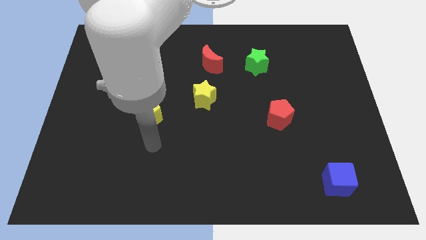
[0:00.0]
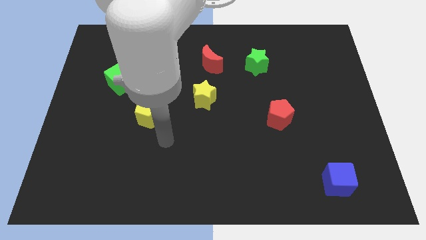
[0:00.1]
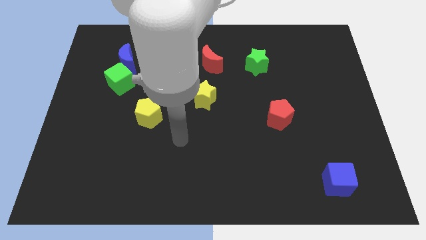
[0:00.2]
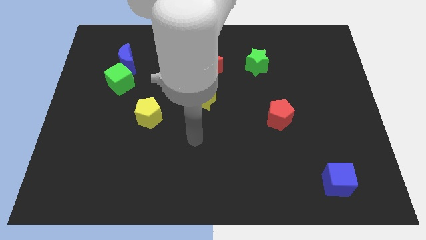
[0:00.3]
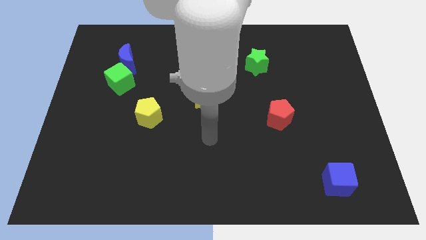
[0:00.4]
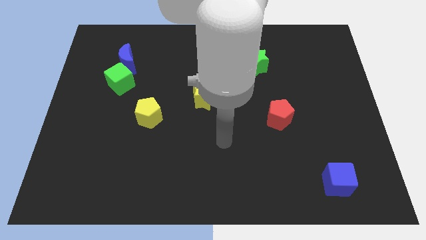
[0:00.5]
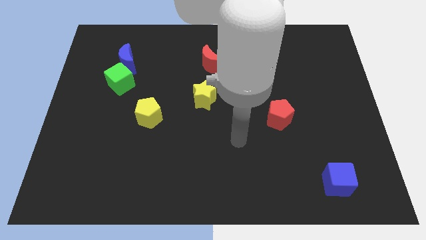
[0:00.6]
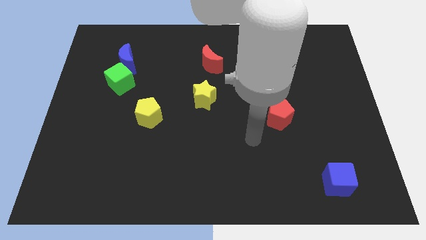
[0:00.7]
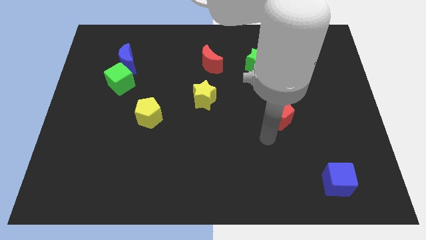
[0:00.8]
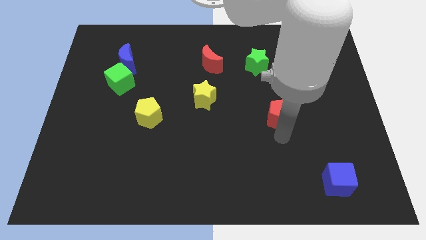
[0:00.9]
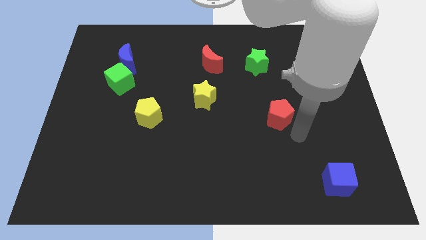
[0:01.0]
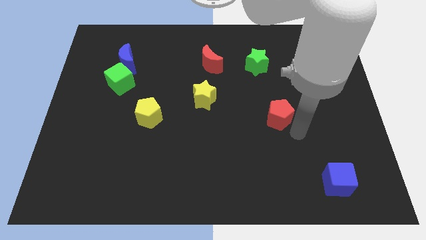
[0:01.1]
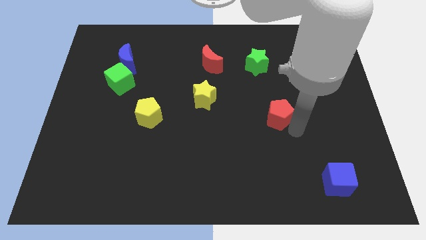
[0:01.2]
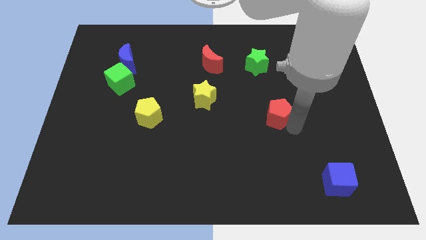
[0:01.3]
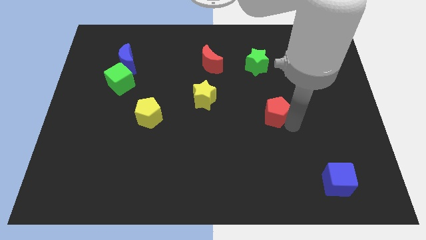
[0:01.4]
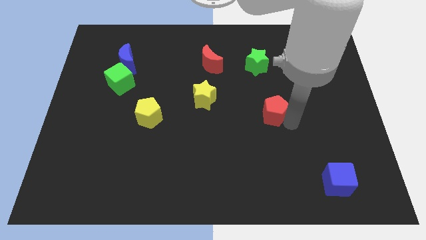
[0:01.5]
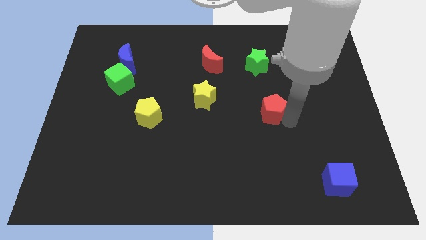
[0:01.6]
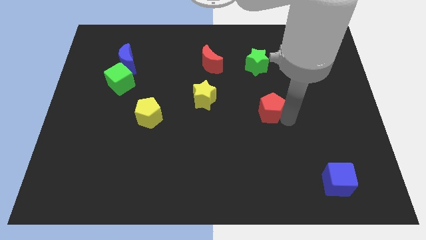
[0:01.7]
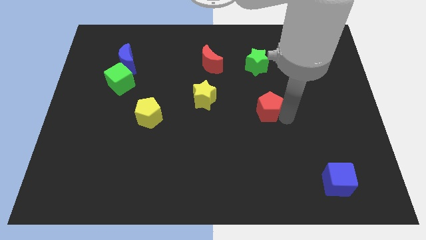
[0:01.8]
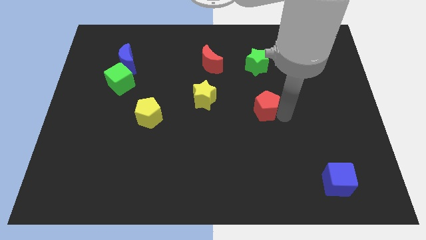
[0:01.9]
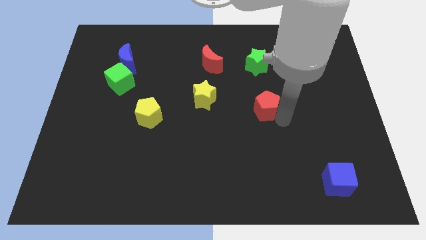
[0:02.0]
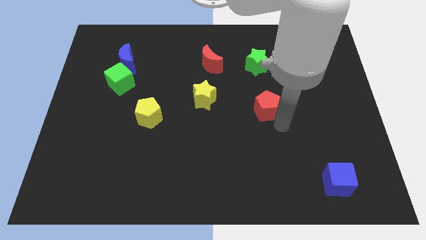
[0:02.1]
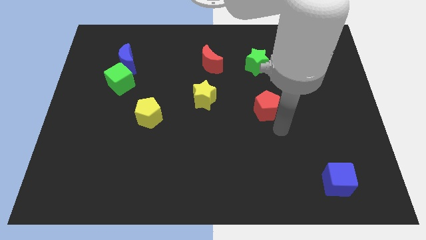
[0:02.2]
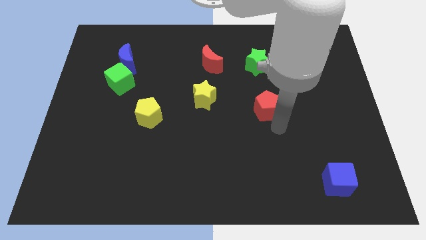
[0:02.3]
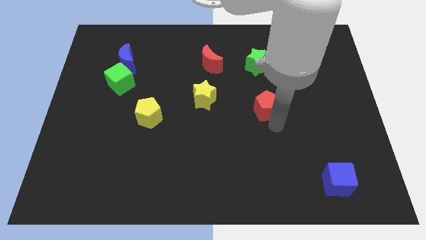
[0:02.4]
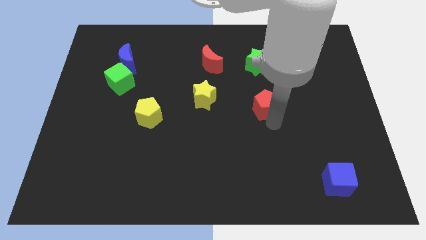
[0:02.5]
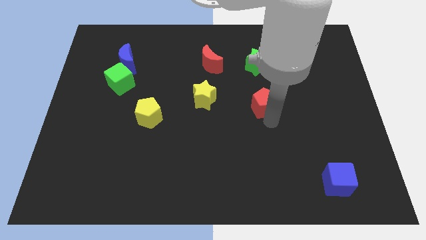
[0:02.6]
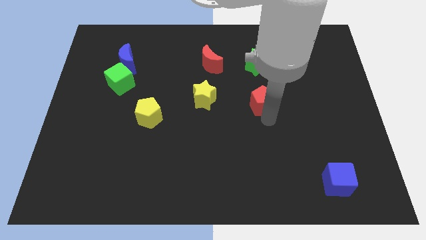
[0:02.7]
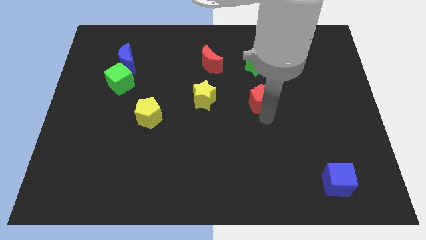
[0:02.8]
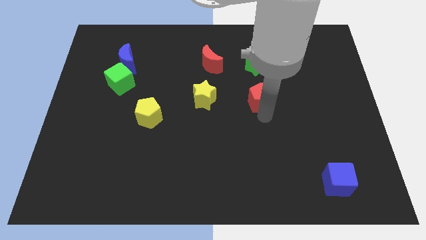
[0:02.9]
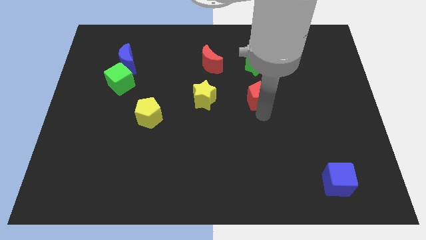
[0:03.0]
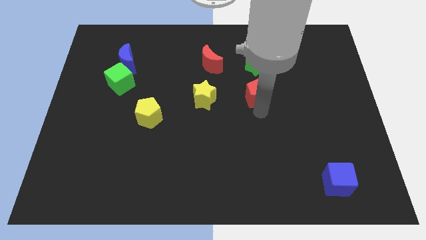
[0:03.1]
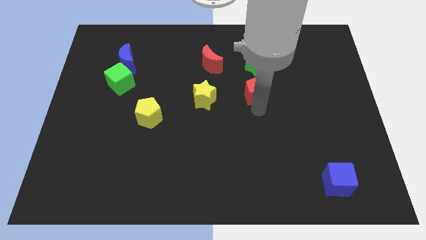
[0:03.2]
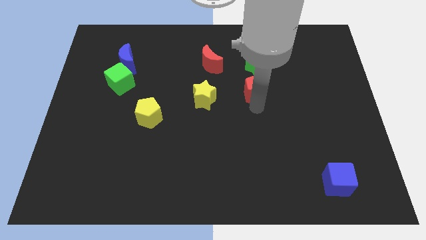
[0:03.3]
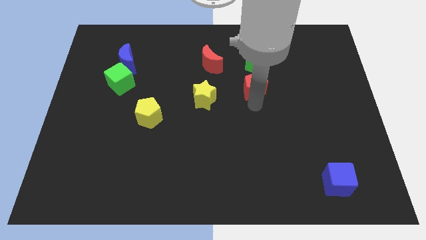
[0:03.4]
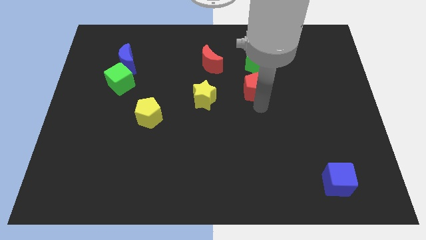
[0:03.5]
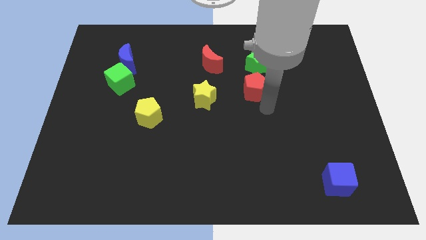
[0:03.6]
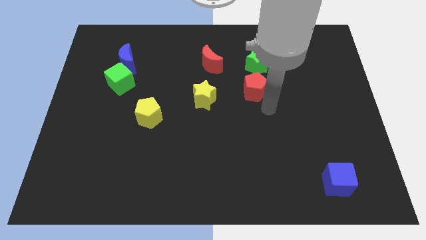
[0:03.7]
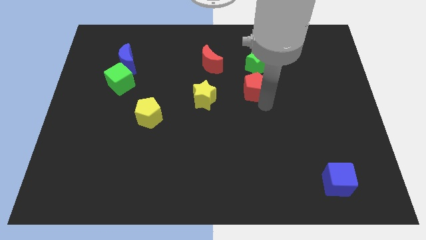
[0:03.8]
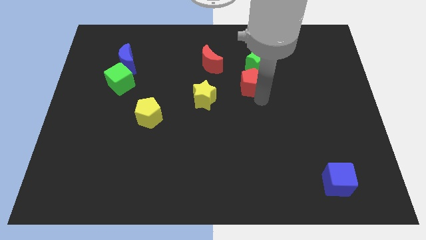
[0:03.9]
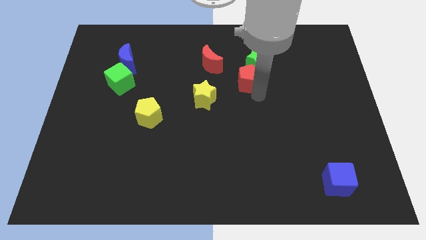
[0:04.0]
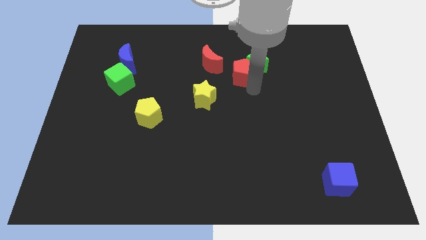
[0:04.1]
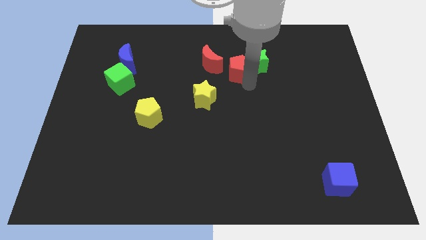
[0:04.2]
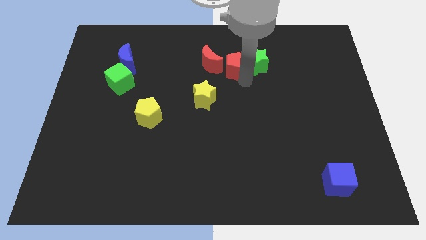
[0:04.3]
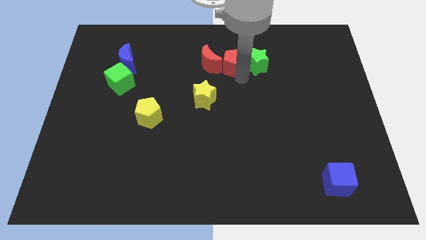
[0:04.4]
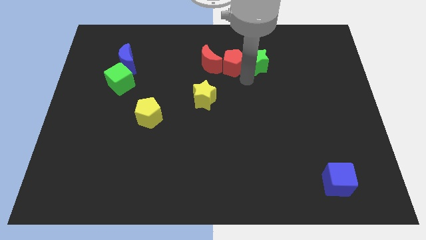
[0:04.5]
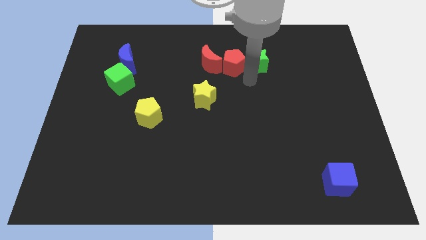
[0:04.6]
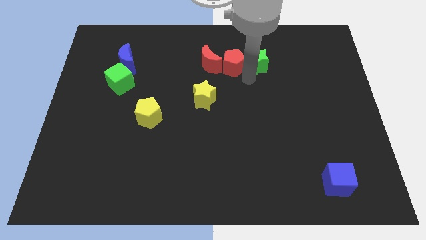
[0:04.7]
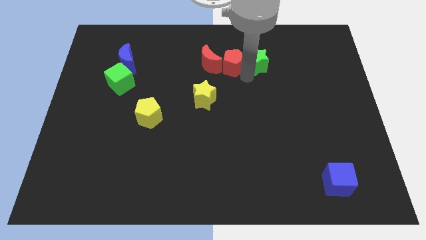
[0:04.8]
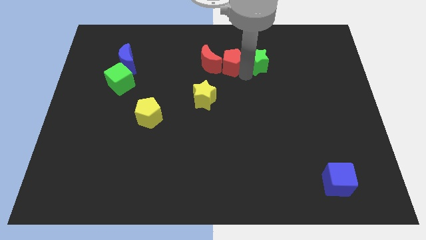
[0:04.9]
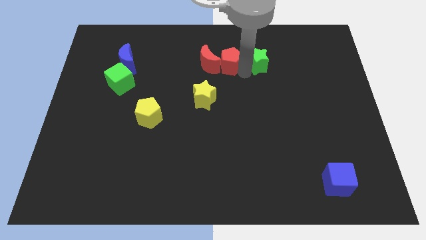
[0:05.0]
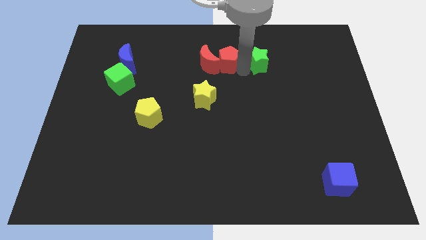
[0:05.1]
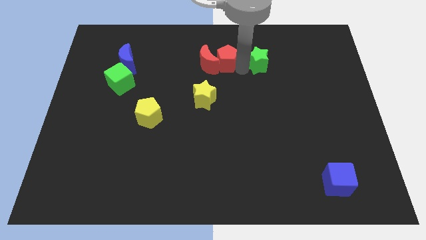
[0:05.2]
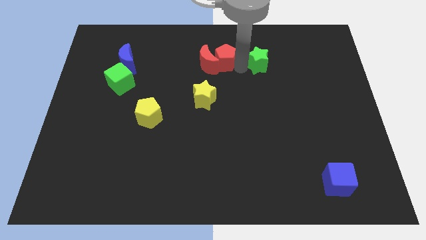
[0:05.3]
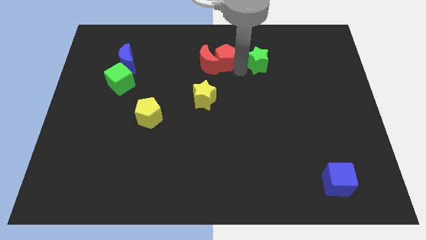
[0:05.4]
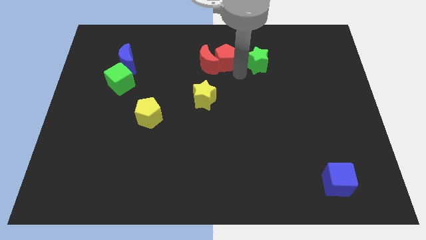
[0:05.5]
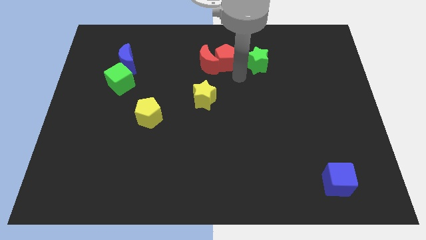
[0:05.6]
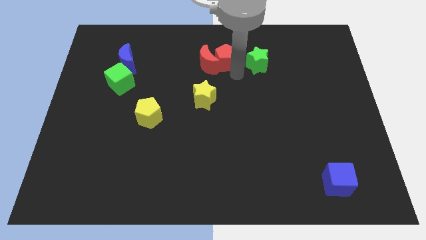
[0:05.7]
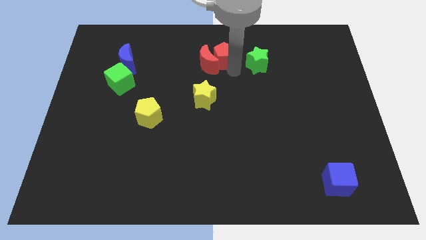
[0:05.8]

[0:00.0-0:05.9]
put the red pentagon above the yellow star

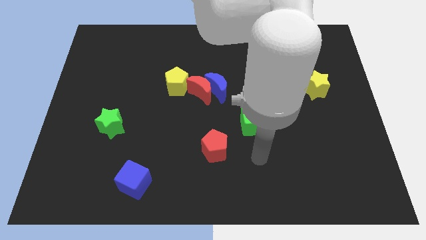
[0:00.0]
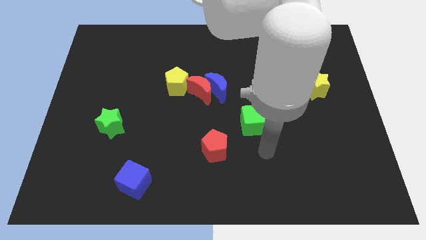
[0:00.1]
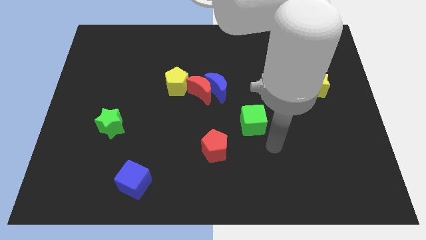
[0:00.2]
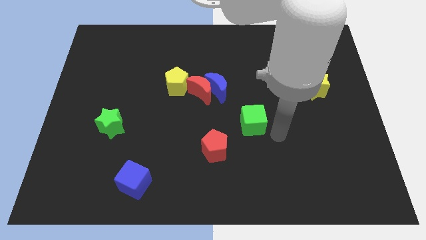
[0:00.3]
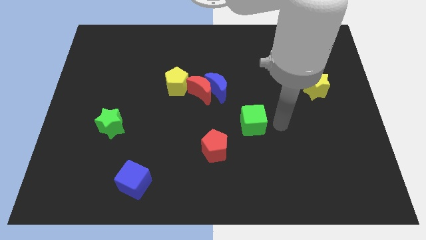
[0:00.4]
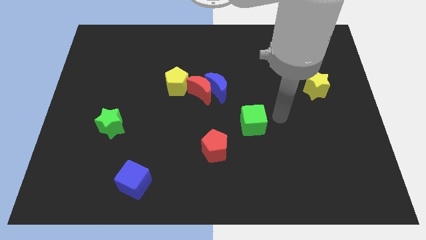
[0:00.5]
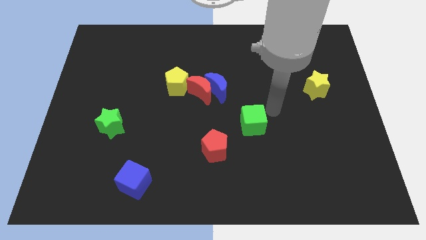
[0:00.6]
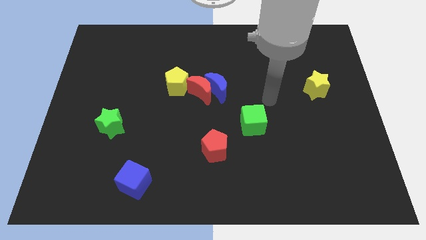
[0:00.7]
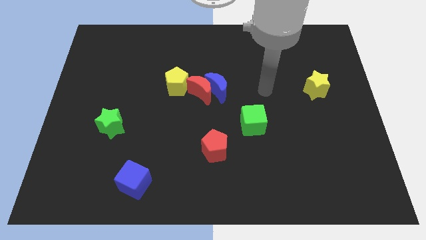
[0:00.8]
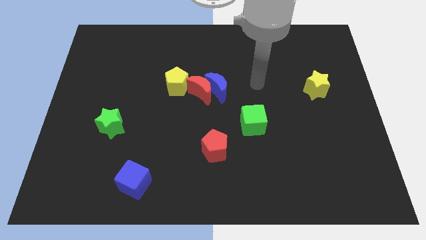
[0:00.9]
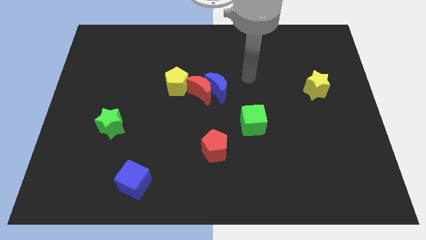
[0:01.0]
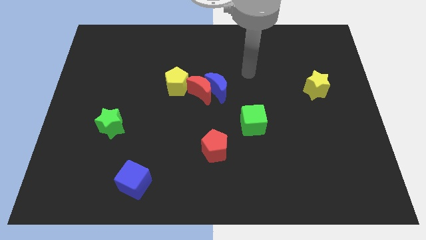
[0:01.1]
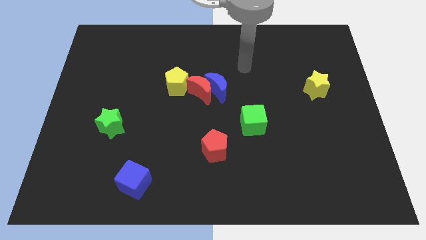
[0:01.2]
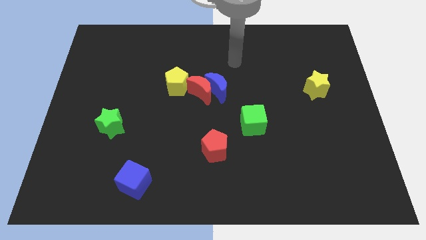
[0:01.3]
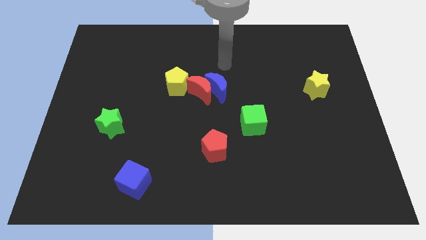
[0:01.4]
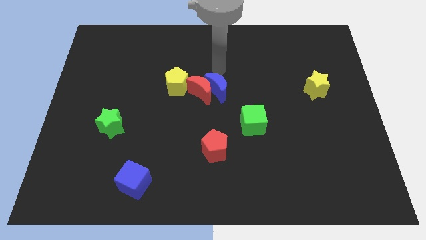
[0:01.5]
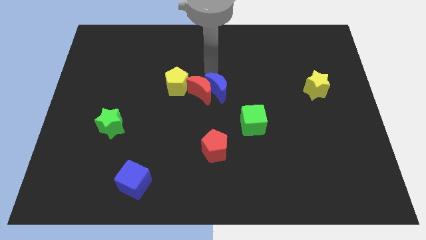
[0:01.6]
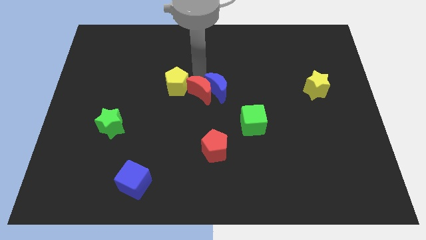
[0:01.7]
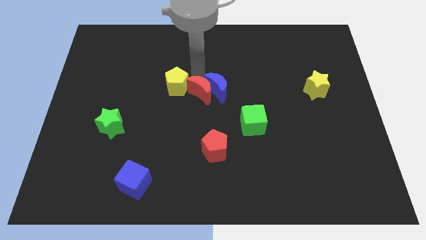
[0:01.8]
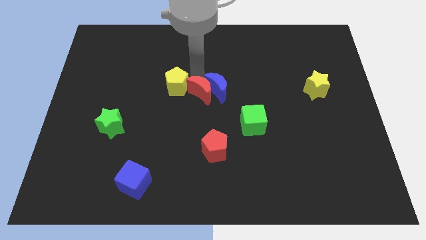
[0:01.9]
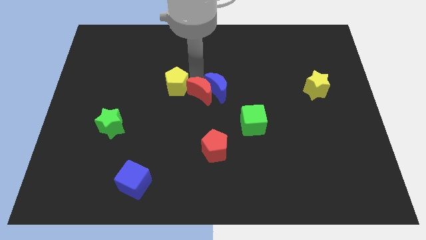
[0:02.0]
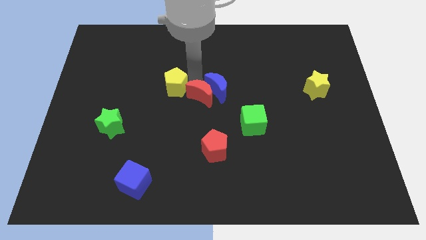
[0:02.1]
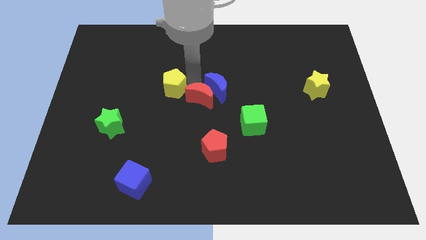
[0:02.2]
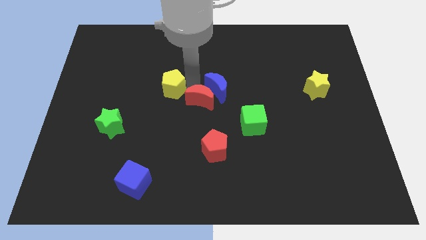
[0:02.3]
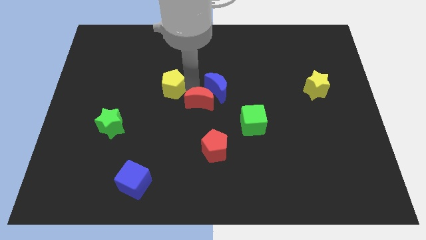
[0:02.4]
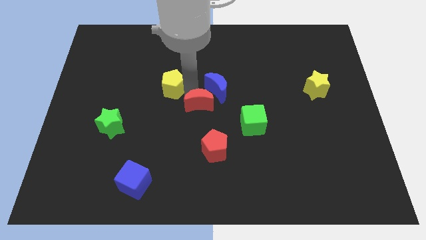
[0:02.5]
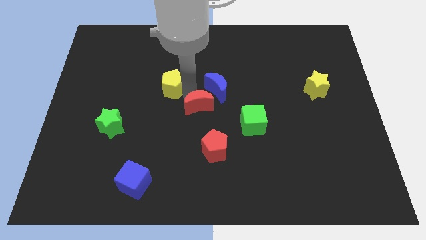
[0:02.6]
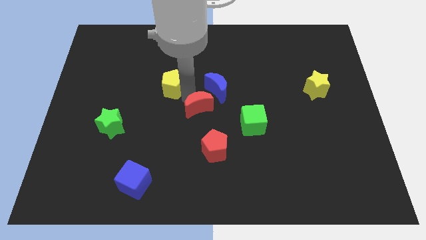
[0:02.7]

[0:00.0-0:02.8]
slide the red moon to the left of the green cube
